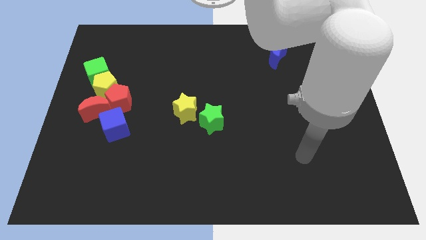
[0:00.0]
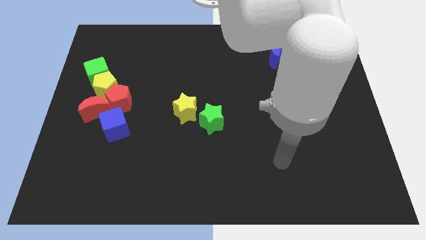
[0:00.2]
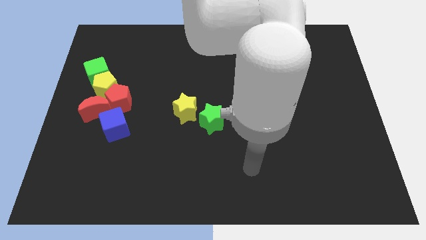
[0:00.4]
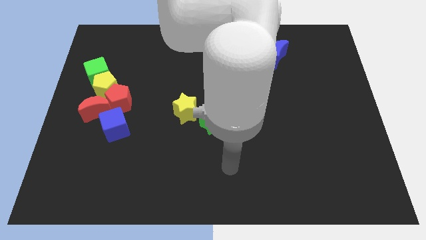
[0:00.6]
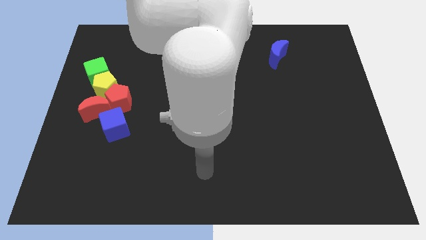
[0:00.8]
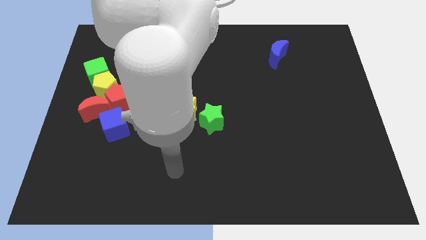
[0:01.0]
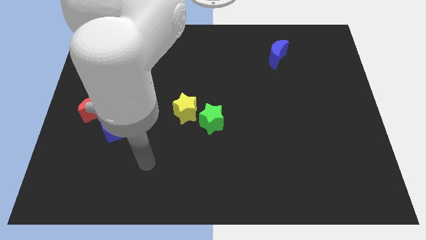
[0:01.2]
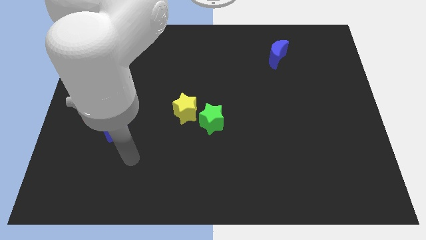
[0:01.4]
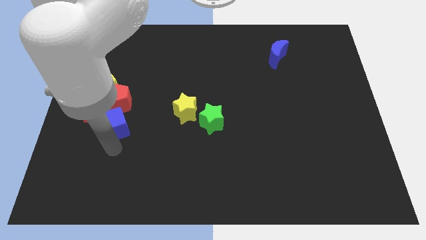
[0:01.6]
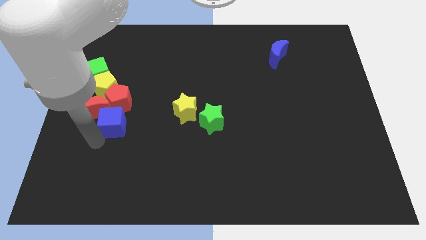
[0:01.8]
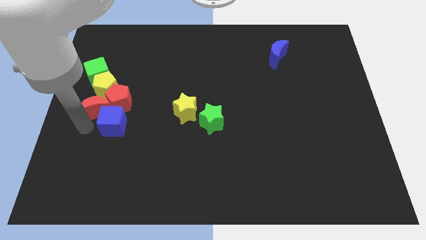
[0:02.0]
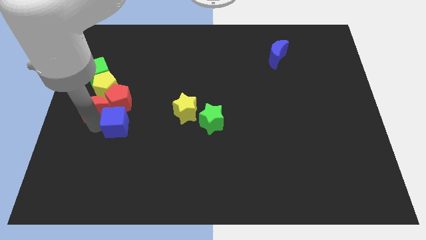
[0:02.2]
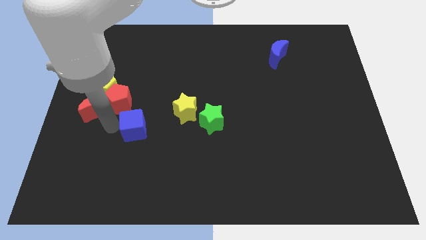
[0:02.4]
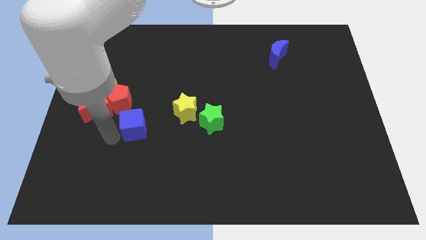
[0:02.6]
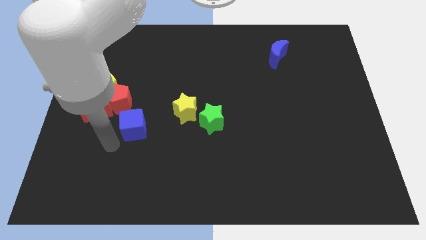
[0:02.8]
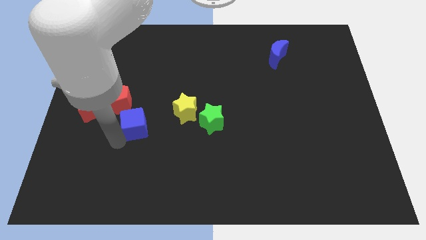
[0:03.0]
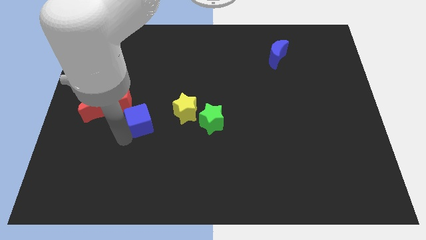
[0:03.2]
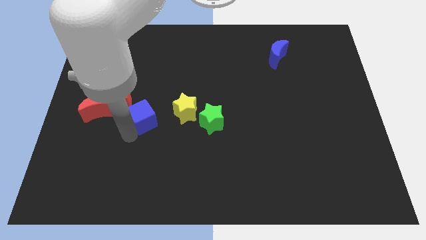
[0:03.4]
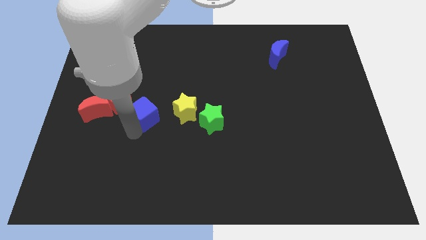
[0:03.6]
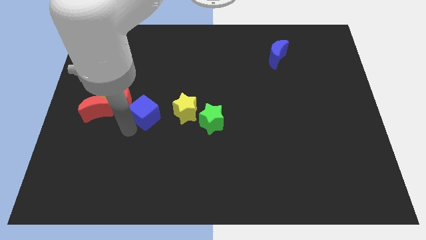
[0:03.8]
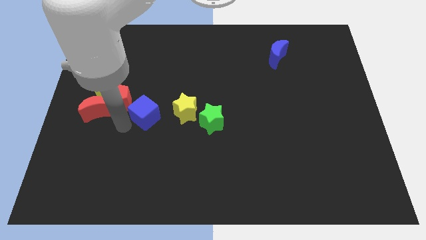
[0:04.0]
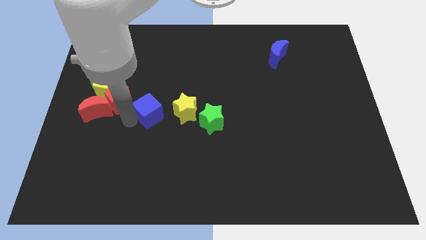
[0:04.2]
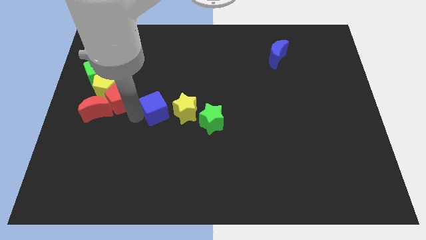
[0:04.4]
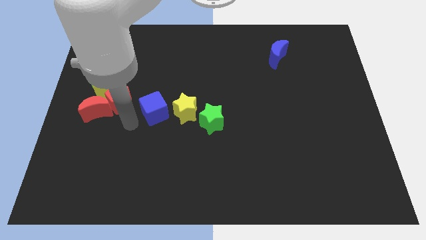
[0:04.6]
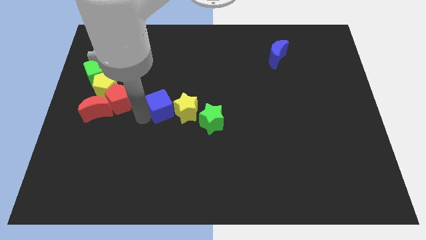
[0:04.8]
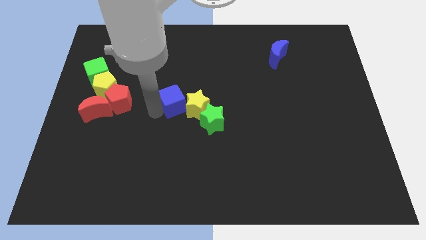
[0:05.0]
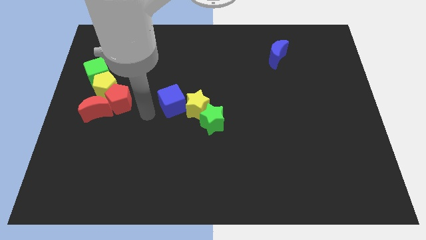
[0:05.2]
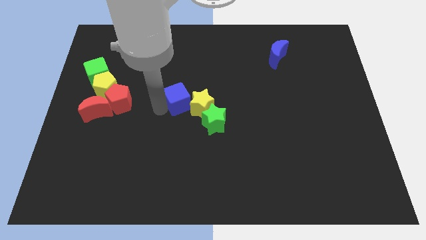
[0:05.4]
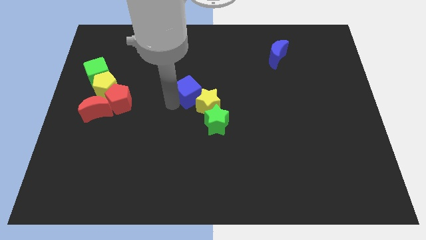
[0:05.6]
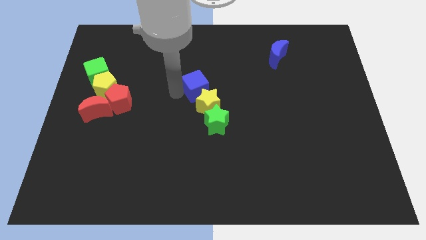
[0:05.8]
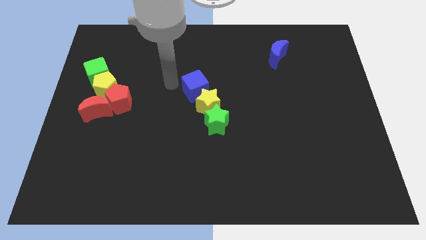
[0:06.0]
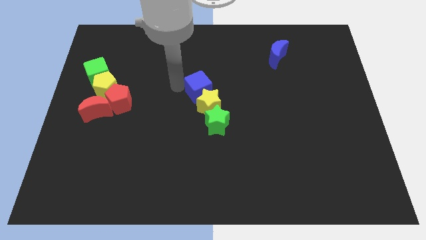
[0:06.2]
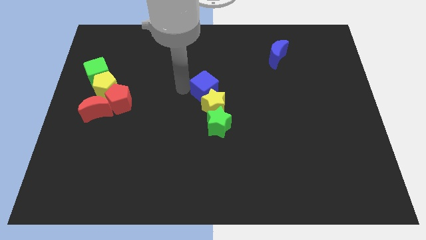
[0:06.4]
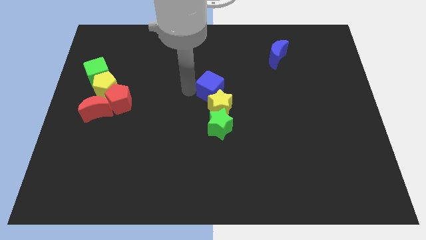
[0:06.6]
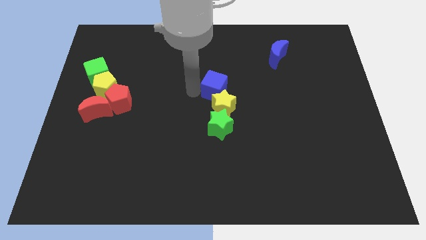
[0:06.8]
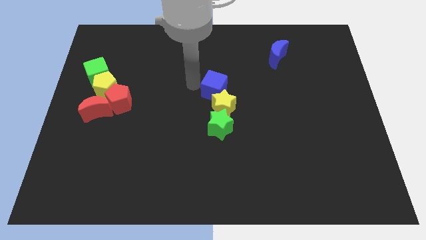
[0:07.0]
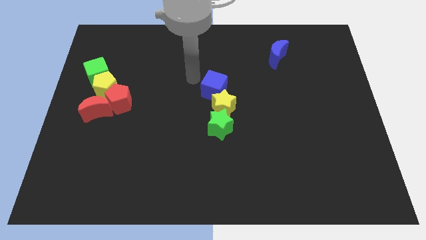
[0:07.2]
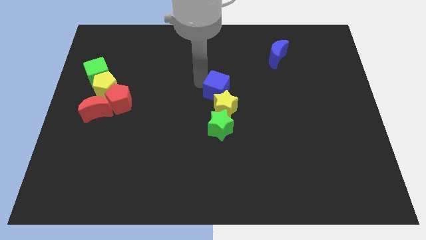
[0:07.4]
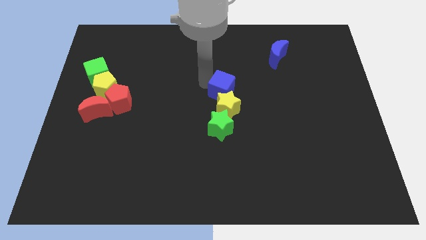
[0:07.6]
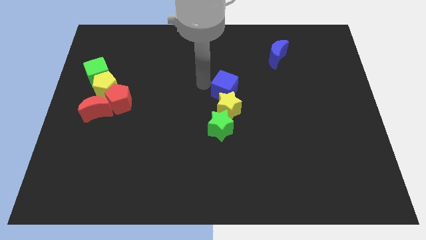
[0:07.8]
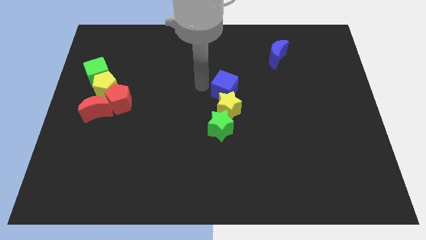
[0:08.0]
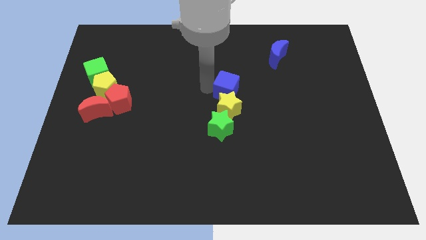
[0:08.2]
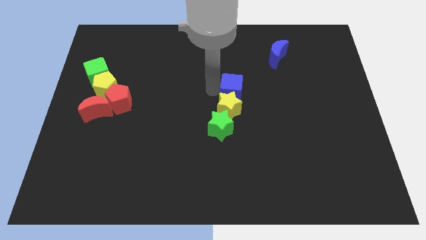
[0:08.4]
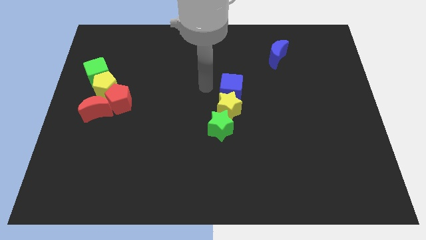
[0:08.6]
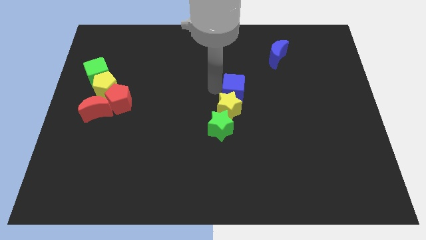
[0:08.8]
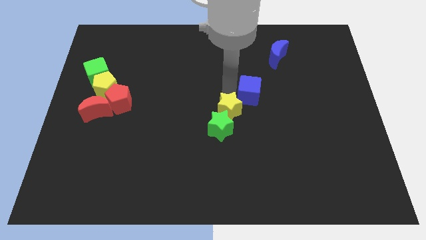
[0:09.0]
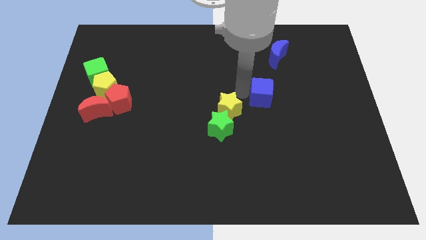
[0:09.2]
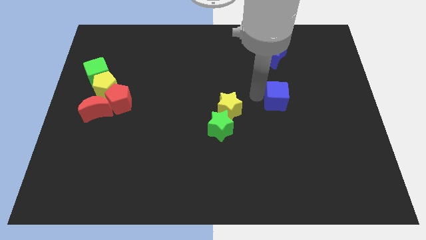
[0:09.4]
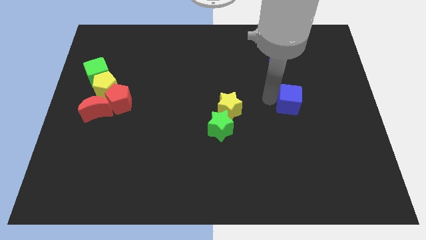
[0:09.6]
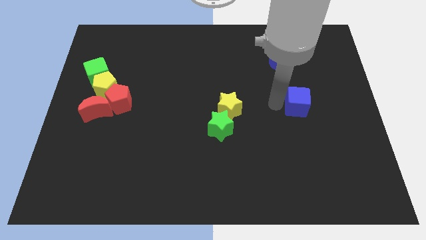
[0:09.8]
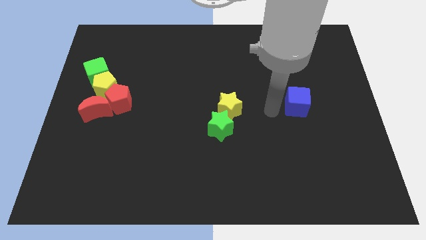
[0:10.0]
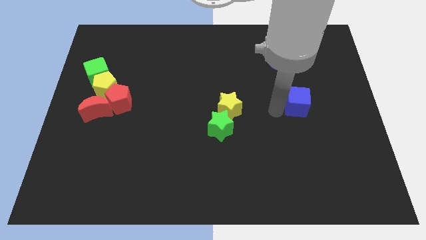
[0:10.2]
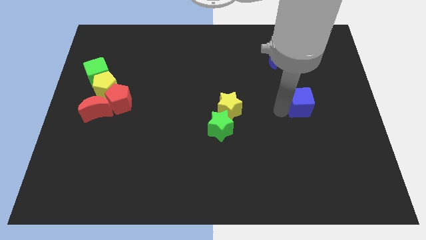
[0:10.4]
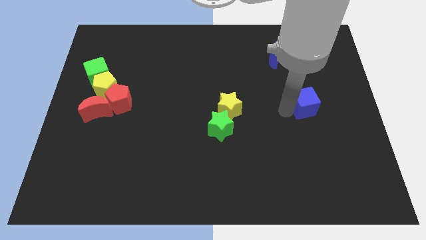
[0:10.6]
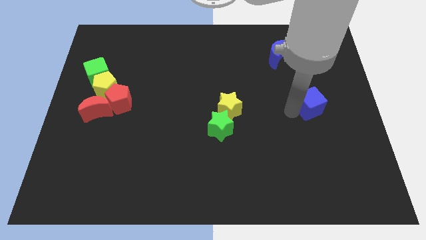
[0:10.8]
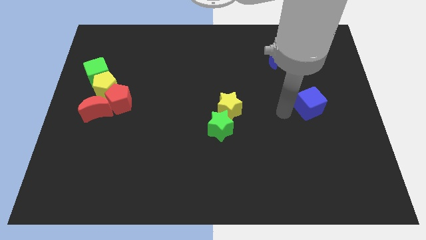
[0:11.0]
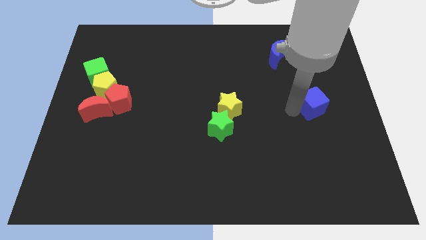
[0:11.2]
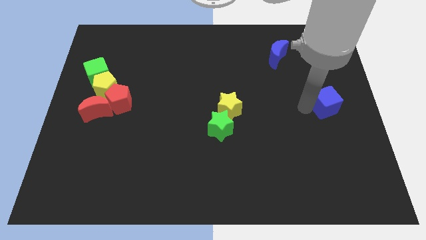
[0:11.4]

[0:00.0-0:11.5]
put the blue cube to the right side of the board
